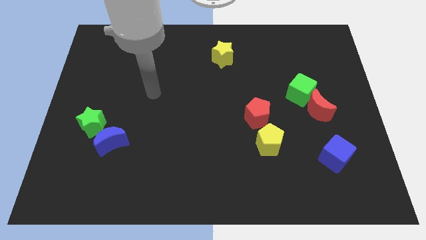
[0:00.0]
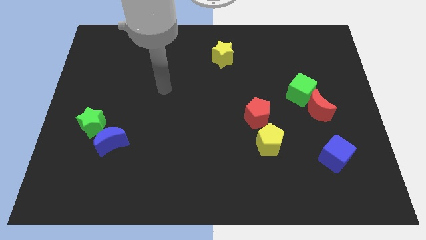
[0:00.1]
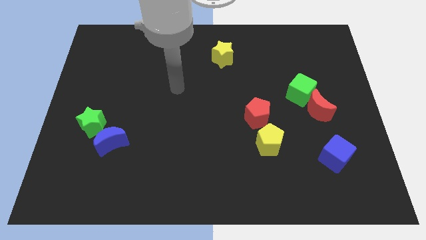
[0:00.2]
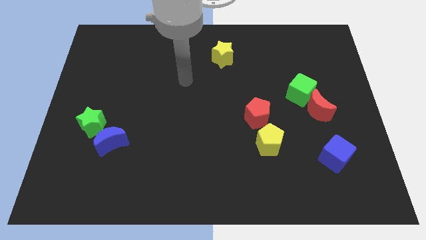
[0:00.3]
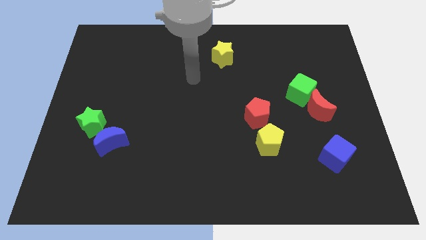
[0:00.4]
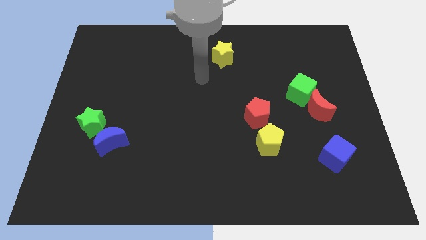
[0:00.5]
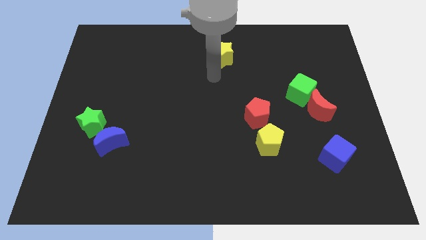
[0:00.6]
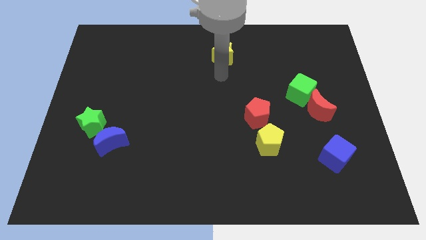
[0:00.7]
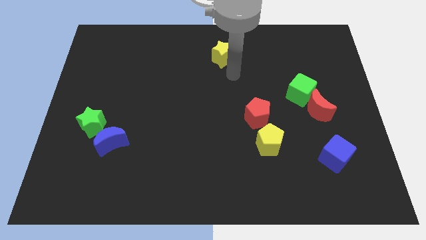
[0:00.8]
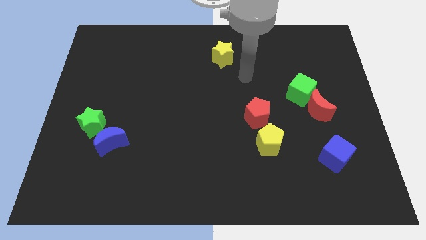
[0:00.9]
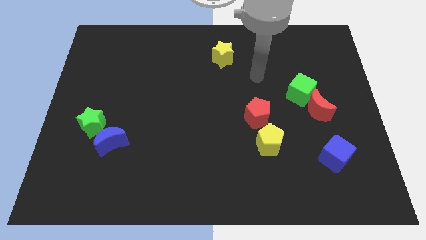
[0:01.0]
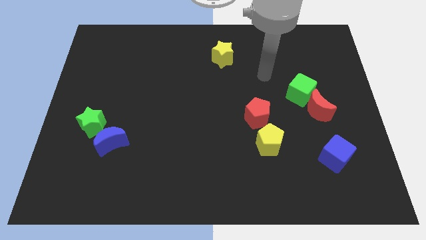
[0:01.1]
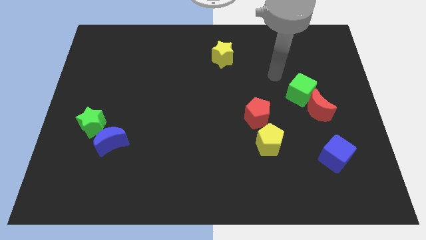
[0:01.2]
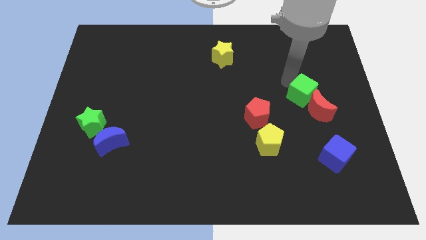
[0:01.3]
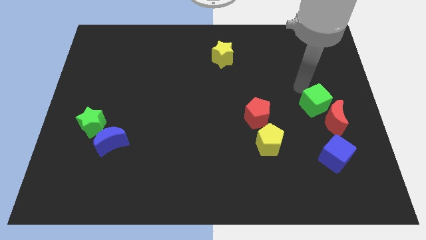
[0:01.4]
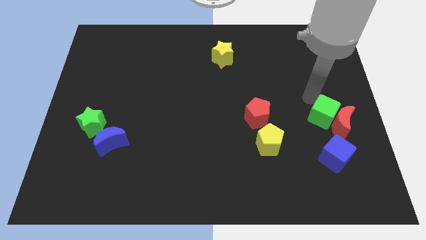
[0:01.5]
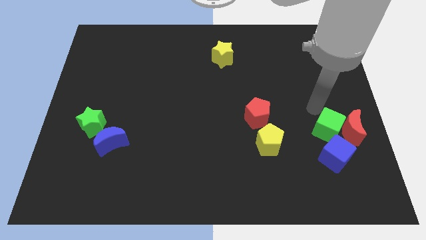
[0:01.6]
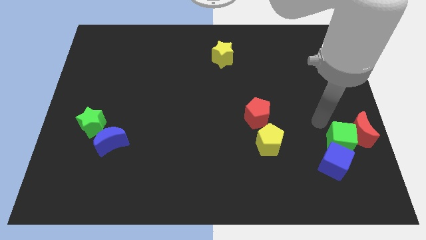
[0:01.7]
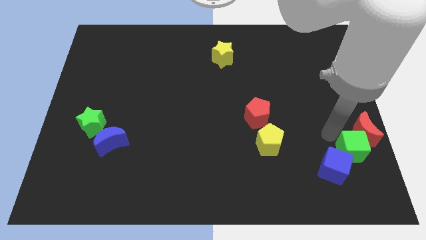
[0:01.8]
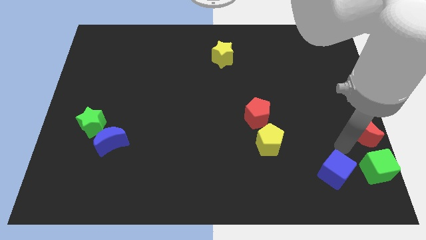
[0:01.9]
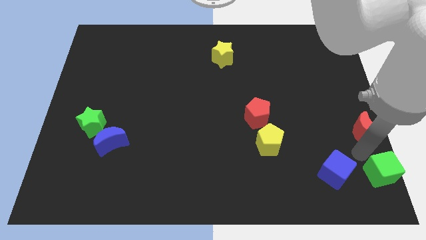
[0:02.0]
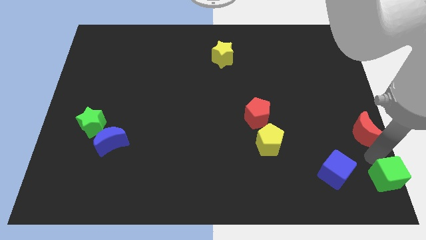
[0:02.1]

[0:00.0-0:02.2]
pull the red moon apart from the green cube

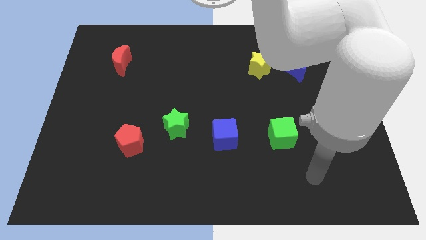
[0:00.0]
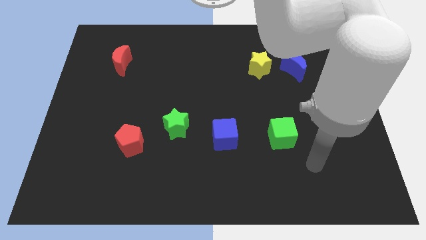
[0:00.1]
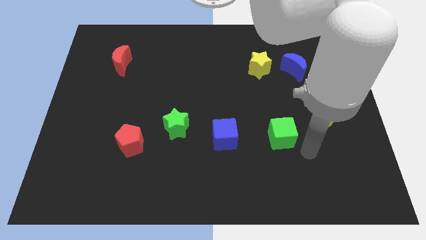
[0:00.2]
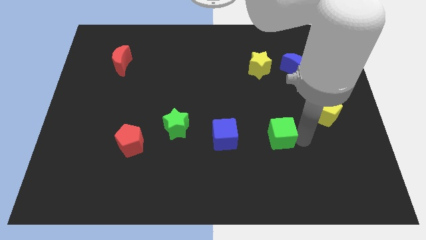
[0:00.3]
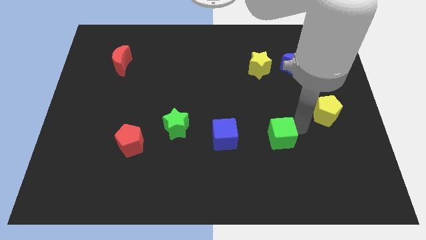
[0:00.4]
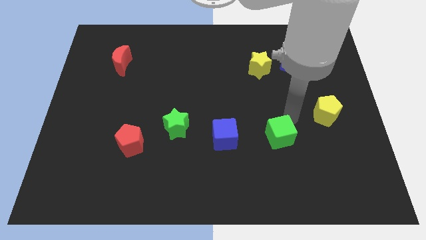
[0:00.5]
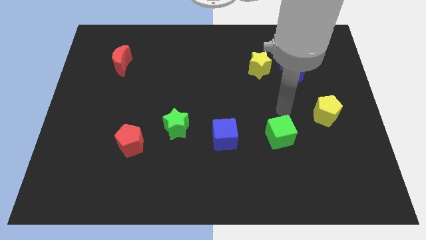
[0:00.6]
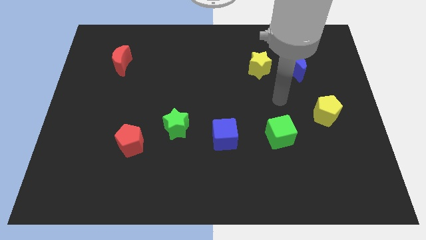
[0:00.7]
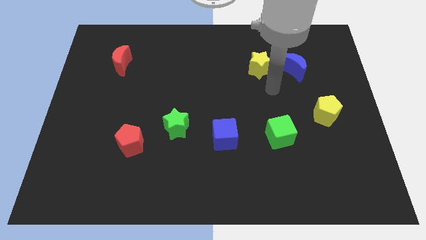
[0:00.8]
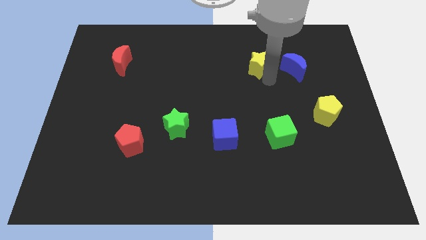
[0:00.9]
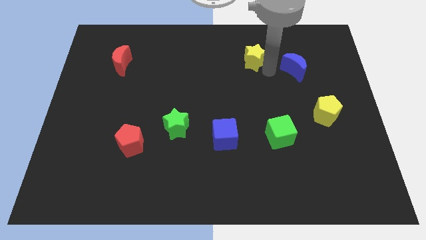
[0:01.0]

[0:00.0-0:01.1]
move the blue moon away from the yellow star

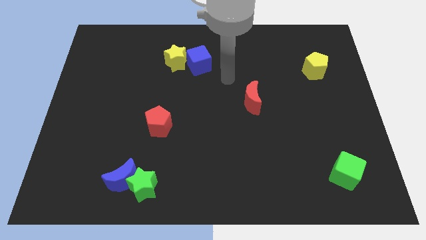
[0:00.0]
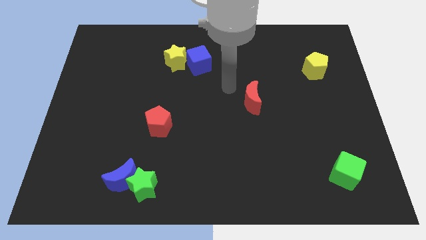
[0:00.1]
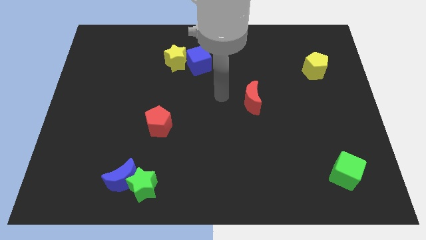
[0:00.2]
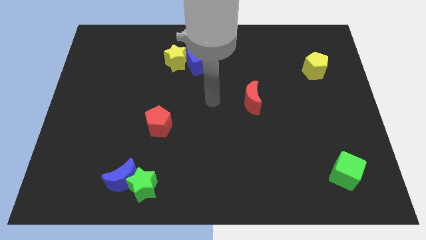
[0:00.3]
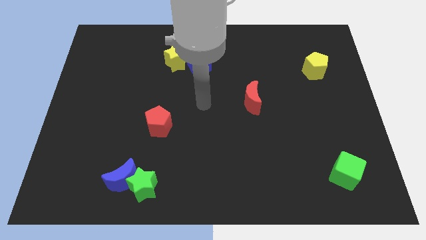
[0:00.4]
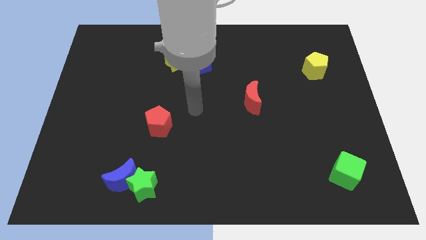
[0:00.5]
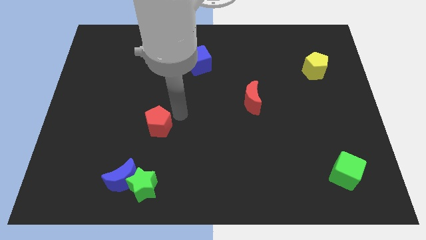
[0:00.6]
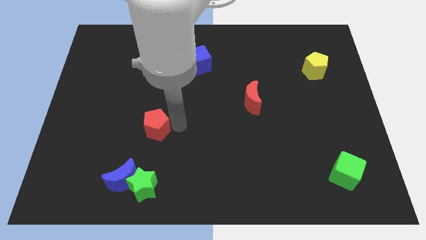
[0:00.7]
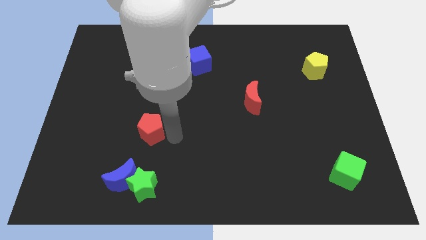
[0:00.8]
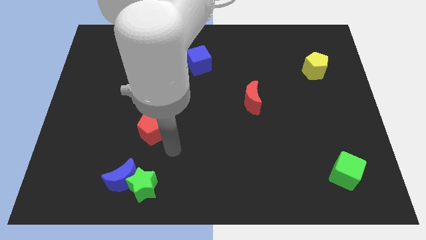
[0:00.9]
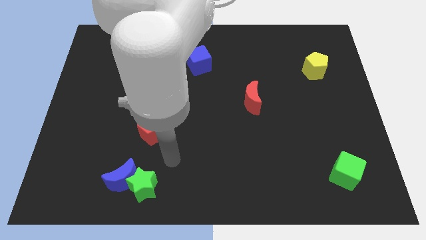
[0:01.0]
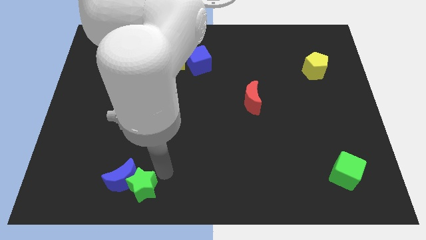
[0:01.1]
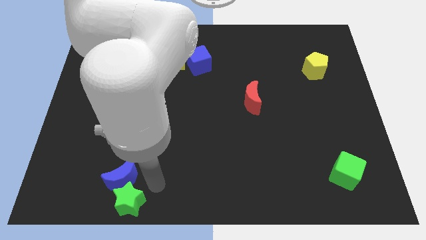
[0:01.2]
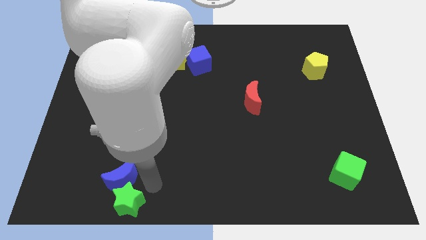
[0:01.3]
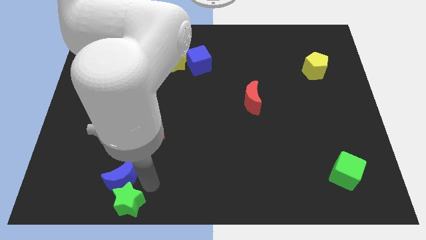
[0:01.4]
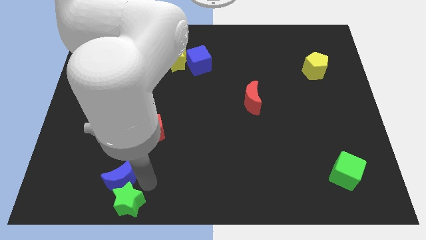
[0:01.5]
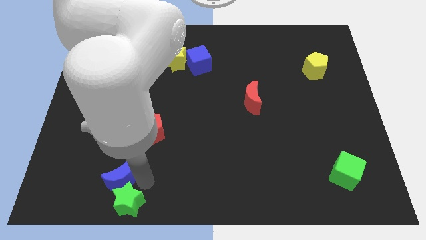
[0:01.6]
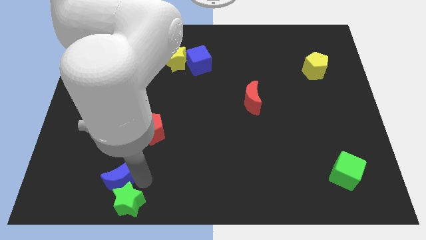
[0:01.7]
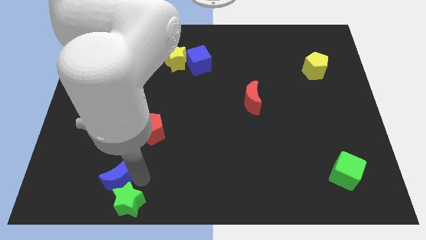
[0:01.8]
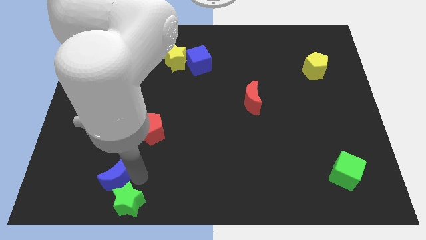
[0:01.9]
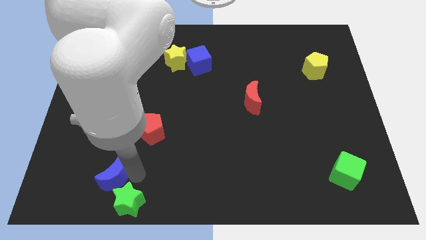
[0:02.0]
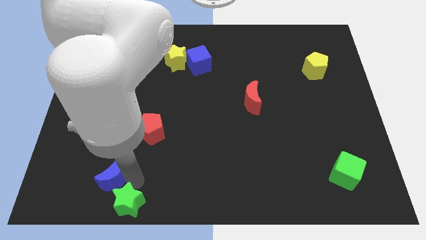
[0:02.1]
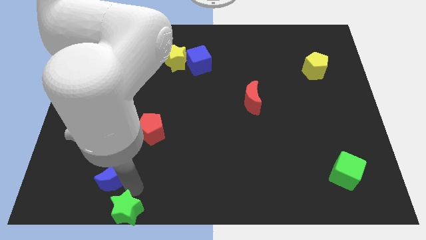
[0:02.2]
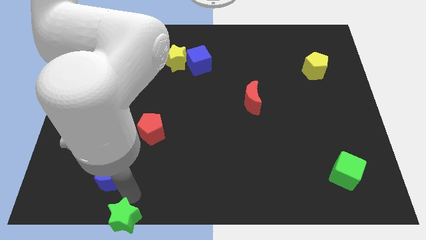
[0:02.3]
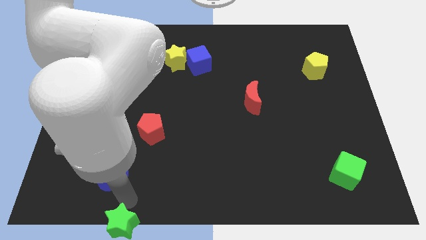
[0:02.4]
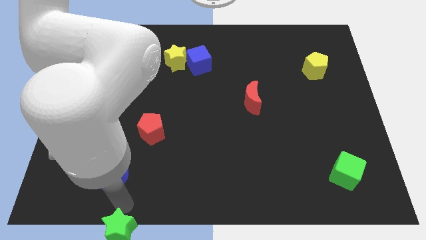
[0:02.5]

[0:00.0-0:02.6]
separate the blue moon from the green star

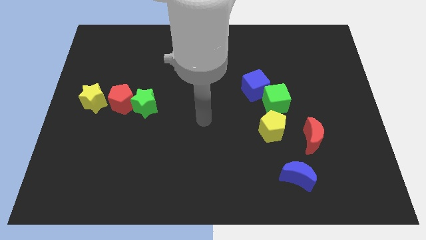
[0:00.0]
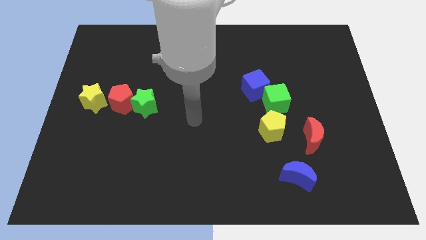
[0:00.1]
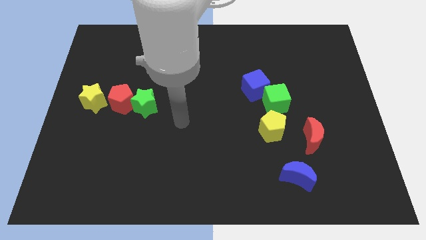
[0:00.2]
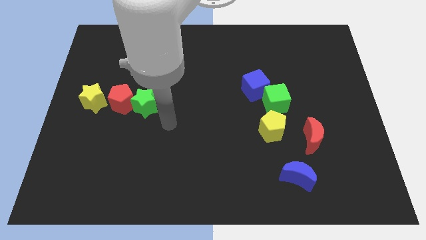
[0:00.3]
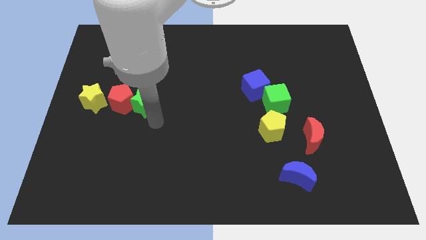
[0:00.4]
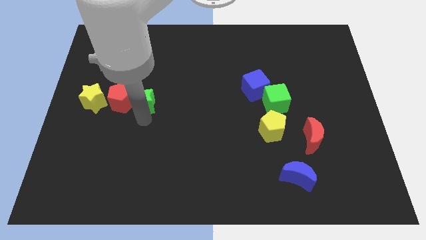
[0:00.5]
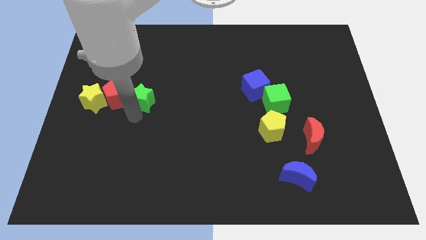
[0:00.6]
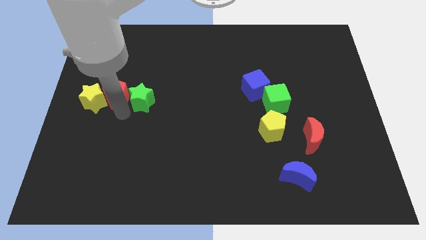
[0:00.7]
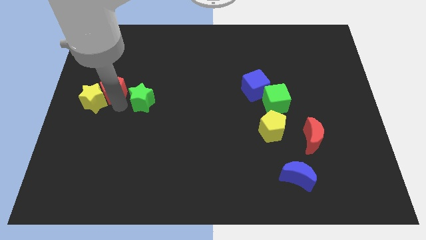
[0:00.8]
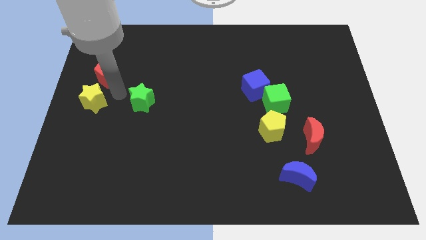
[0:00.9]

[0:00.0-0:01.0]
move the green star away from the red pentagon

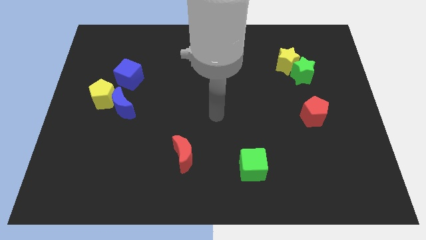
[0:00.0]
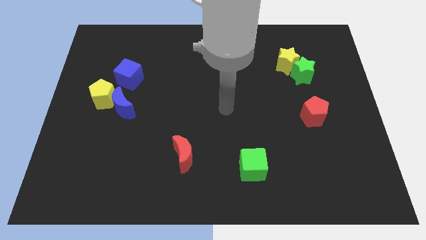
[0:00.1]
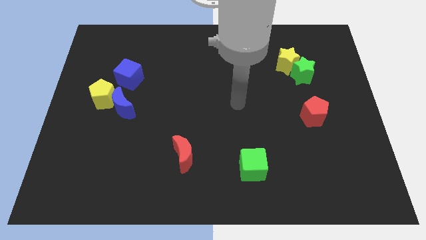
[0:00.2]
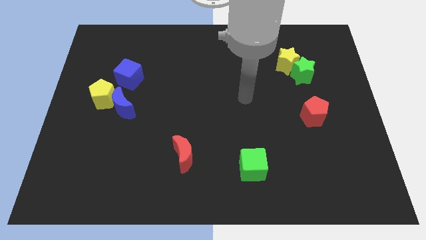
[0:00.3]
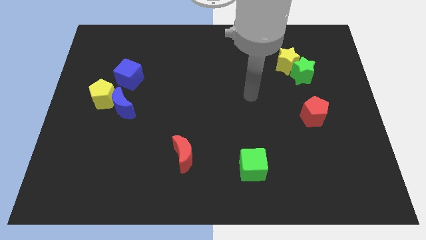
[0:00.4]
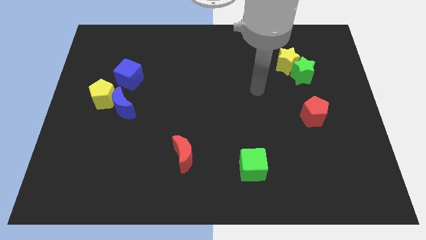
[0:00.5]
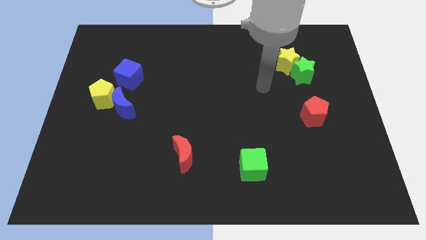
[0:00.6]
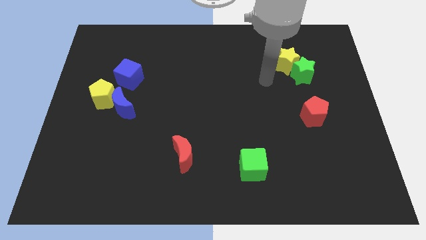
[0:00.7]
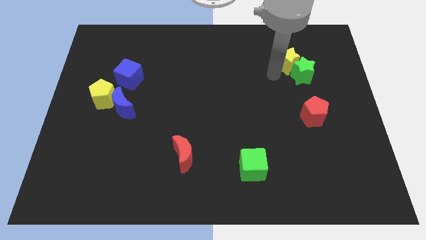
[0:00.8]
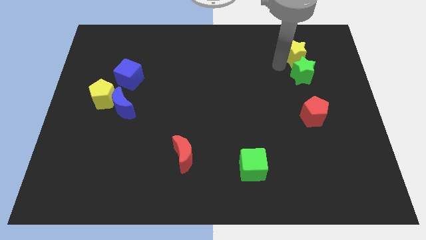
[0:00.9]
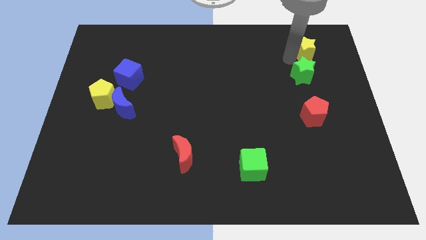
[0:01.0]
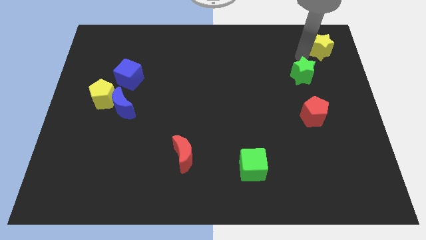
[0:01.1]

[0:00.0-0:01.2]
move the green star away from the yellow star

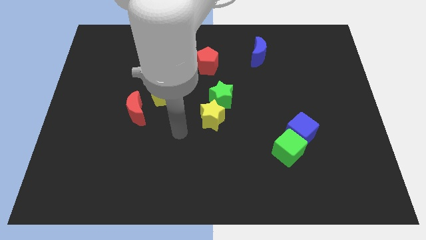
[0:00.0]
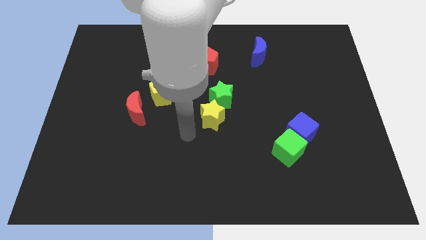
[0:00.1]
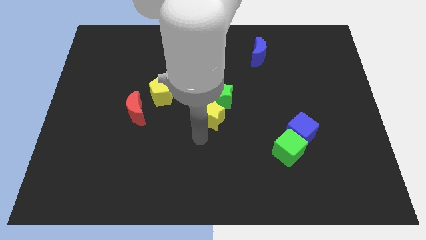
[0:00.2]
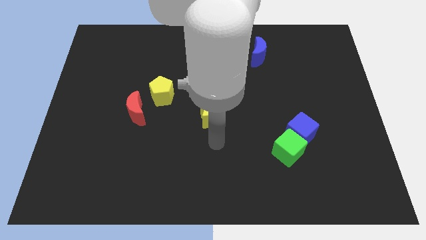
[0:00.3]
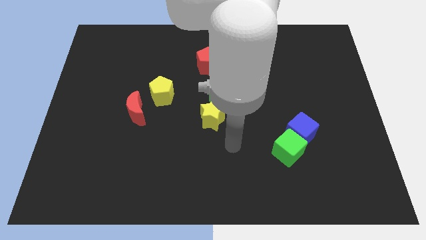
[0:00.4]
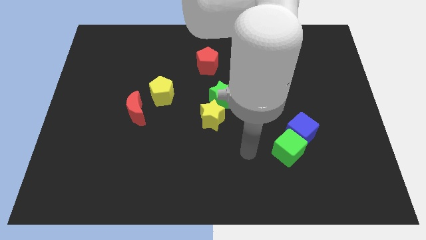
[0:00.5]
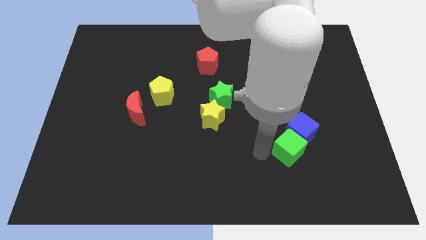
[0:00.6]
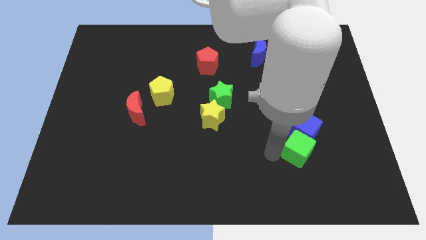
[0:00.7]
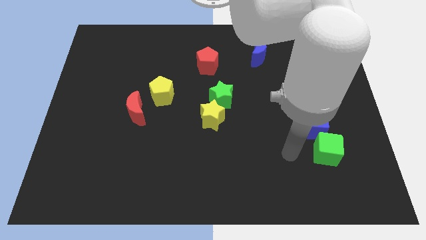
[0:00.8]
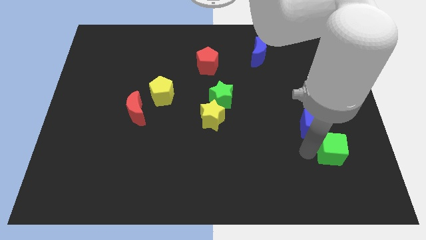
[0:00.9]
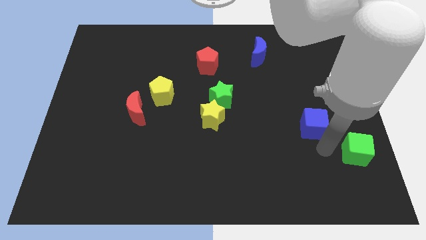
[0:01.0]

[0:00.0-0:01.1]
pull the blue cube apart from the green cube
